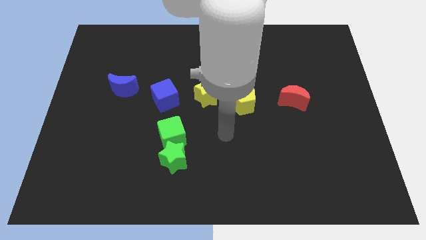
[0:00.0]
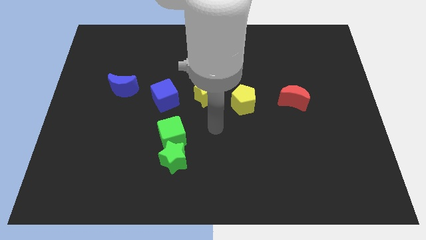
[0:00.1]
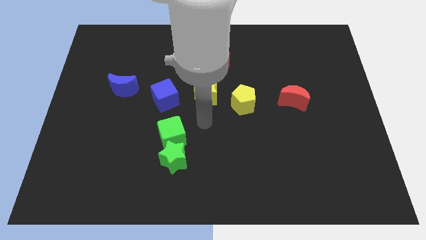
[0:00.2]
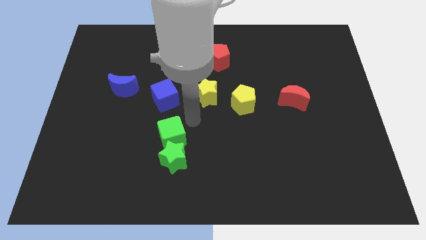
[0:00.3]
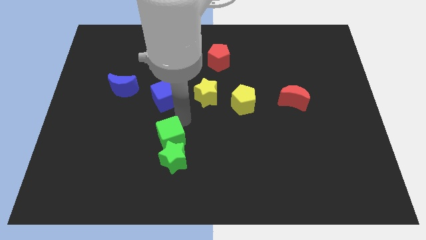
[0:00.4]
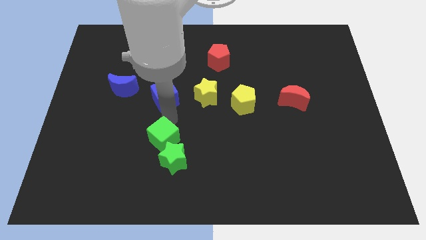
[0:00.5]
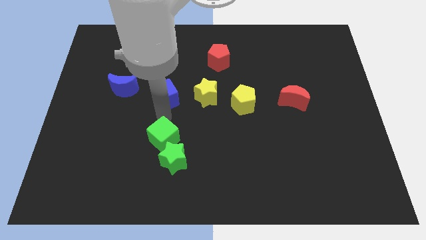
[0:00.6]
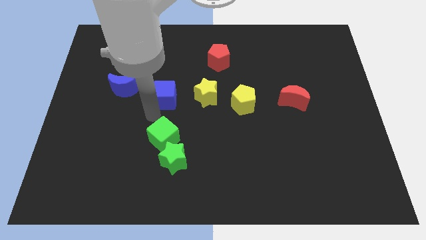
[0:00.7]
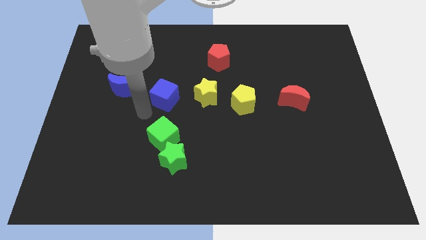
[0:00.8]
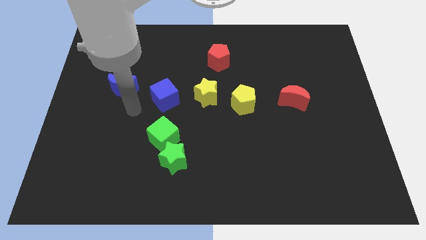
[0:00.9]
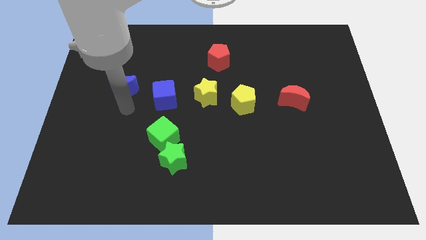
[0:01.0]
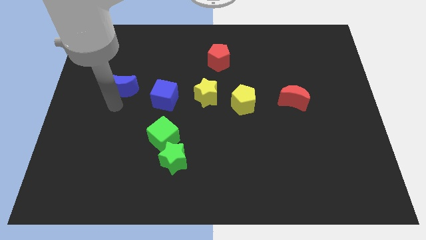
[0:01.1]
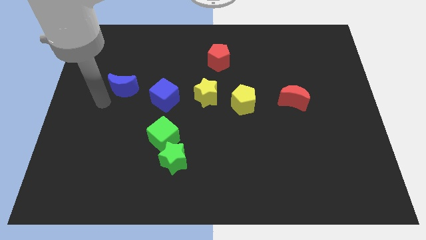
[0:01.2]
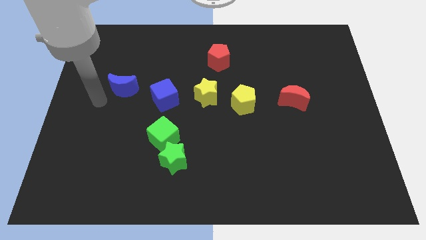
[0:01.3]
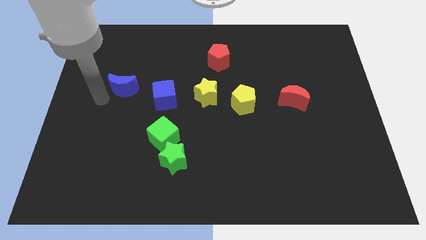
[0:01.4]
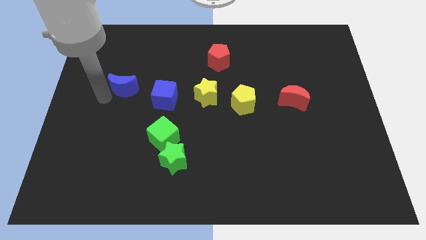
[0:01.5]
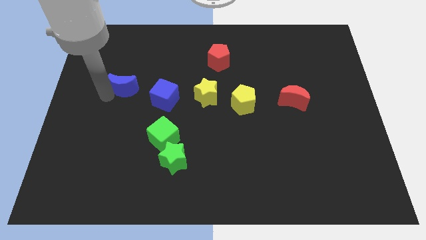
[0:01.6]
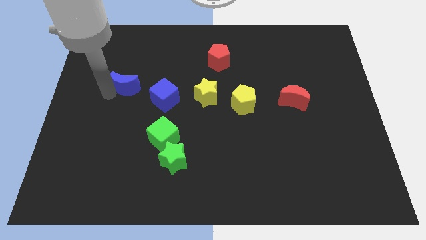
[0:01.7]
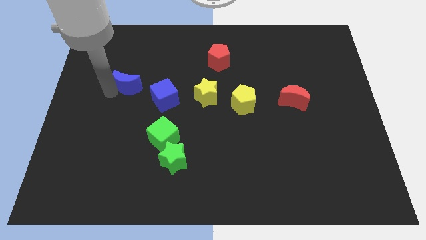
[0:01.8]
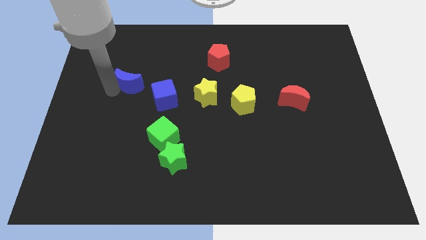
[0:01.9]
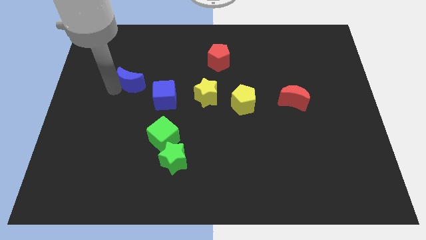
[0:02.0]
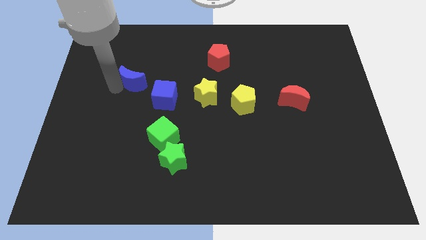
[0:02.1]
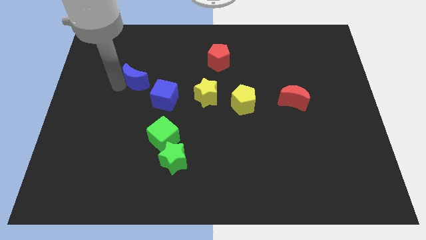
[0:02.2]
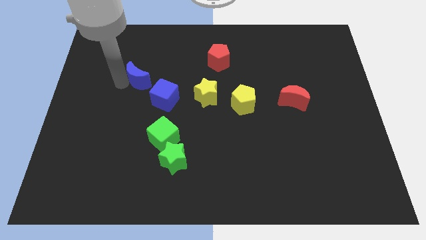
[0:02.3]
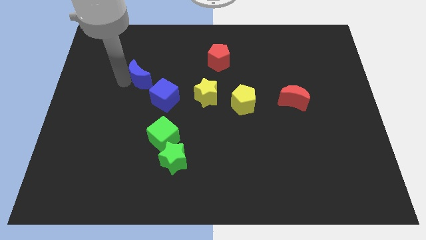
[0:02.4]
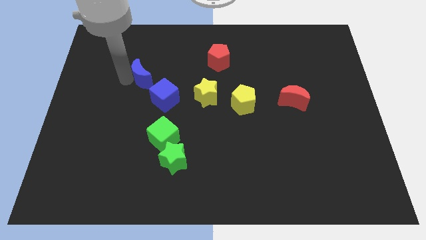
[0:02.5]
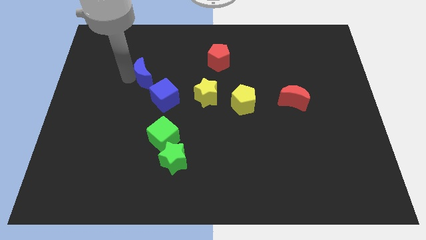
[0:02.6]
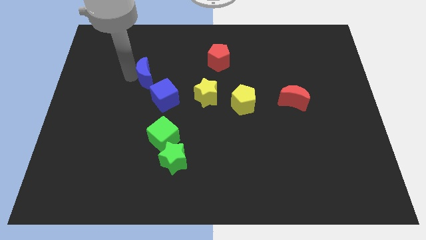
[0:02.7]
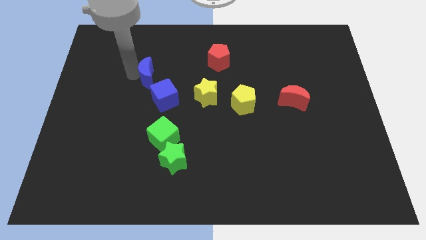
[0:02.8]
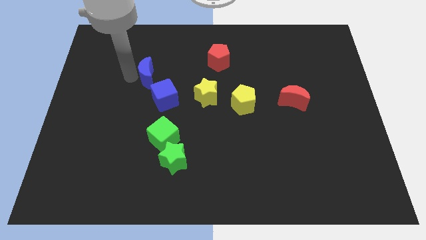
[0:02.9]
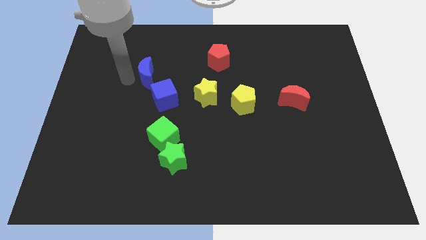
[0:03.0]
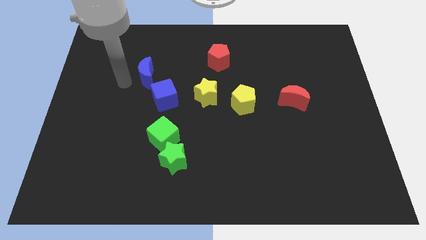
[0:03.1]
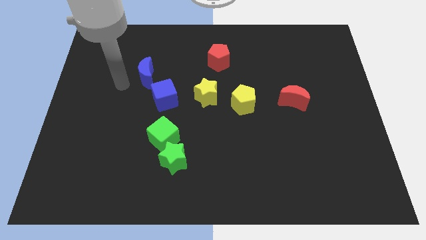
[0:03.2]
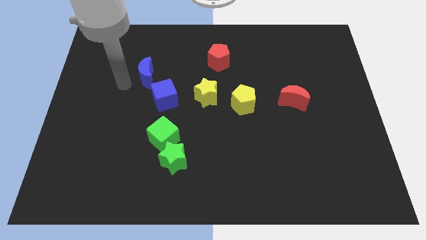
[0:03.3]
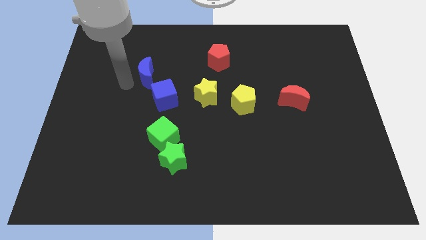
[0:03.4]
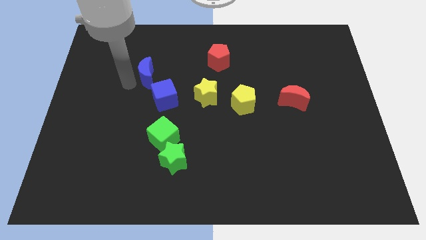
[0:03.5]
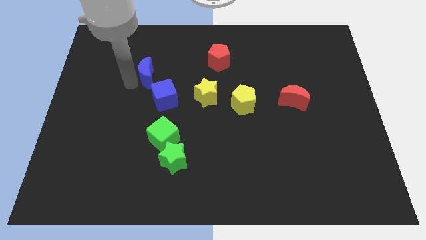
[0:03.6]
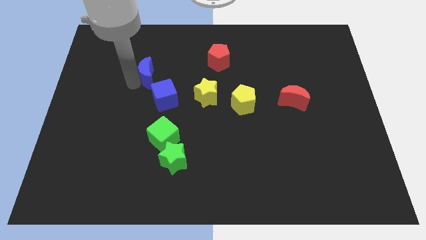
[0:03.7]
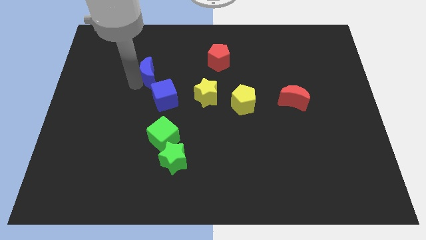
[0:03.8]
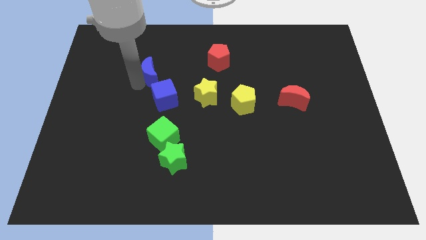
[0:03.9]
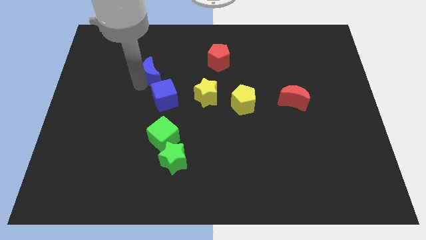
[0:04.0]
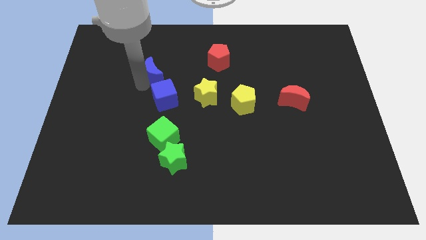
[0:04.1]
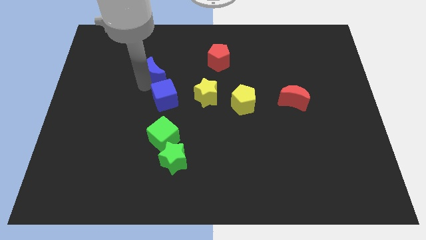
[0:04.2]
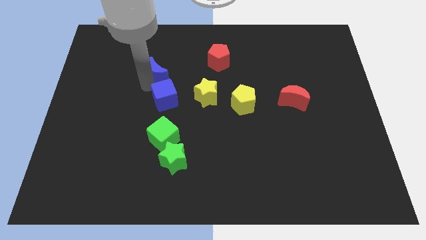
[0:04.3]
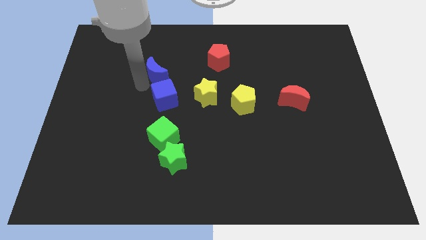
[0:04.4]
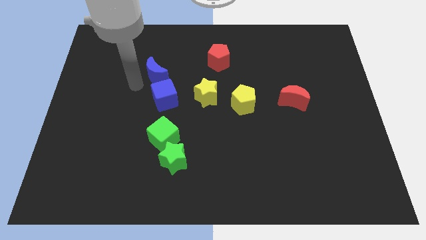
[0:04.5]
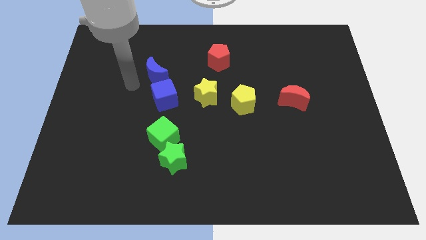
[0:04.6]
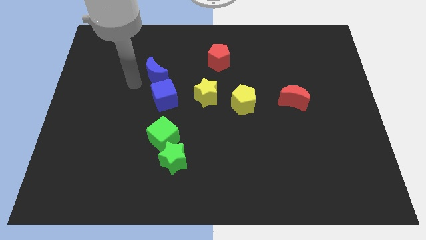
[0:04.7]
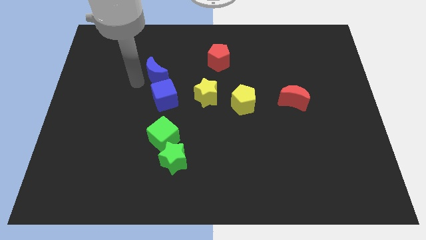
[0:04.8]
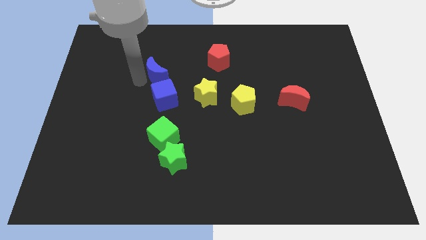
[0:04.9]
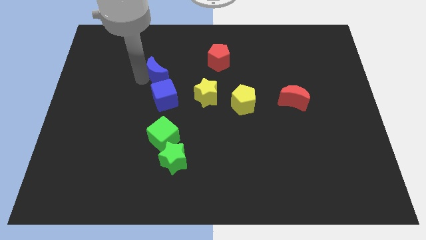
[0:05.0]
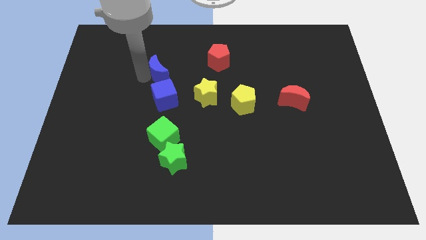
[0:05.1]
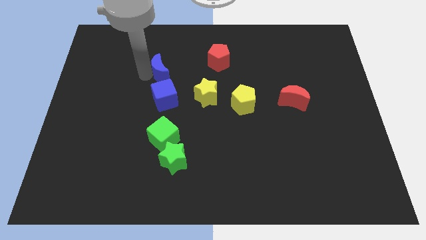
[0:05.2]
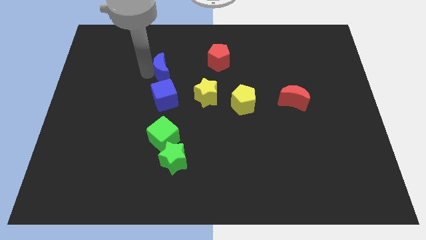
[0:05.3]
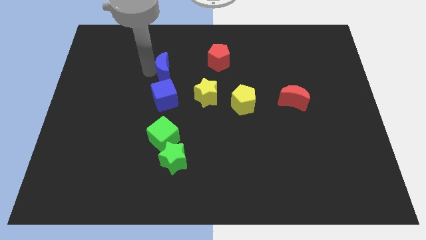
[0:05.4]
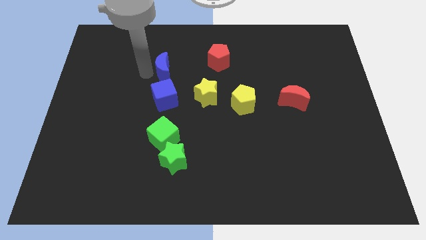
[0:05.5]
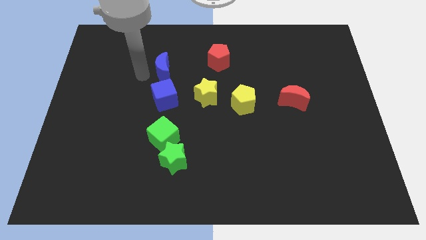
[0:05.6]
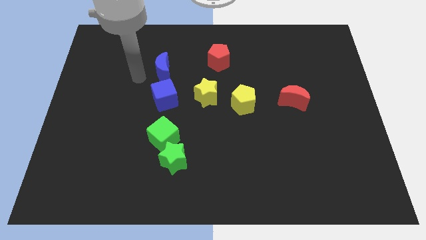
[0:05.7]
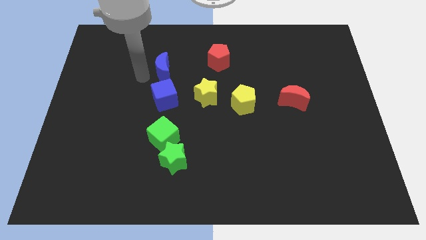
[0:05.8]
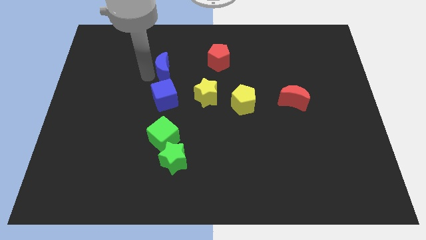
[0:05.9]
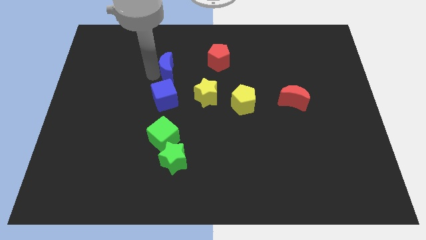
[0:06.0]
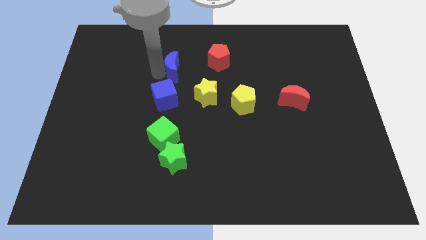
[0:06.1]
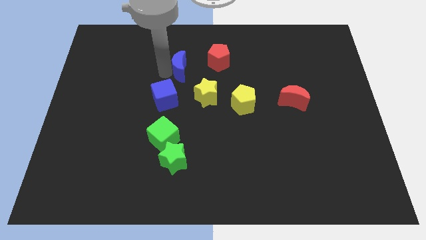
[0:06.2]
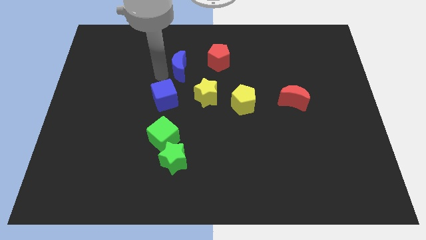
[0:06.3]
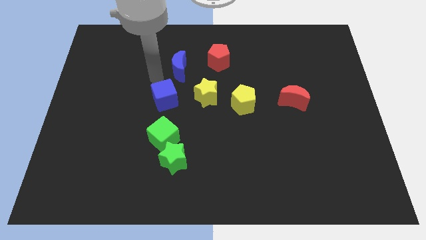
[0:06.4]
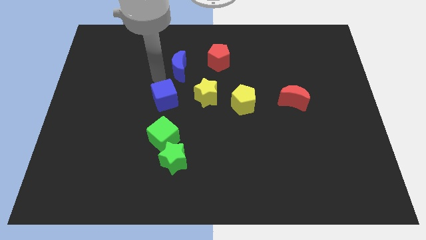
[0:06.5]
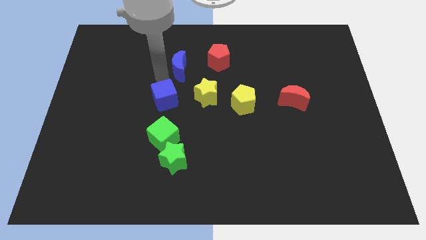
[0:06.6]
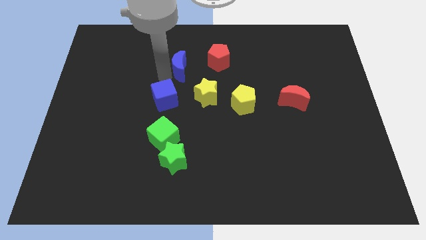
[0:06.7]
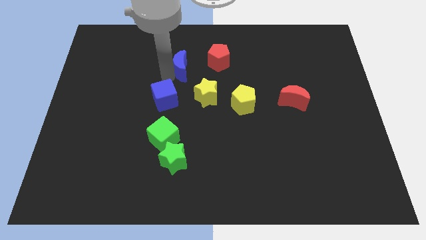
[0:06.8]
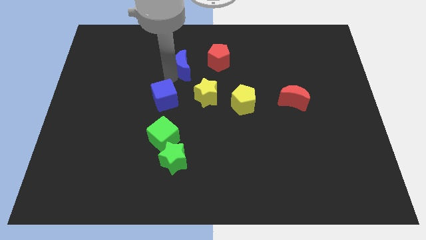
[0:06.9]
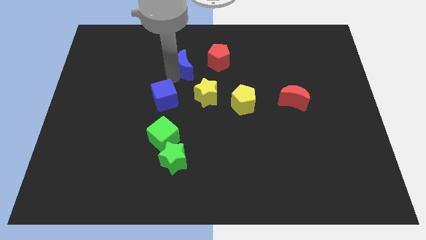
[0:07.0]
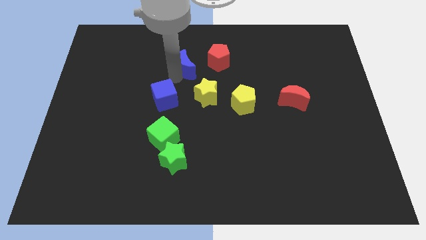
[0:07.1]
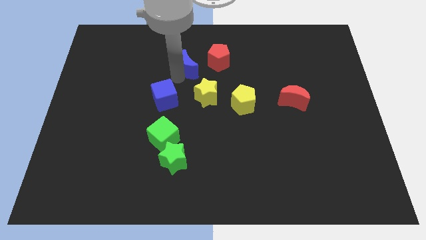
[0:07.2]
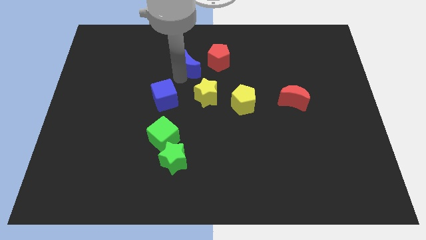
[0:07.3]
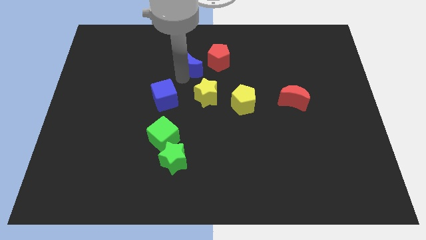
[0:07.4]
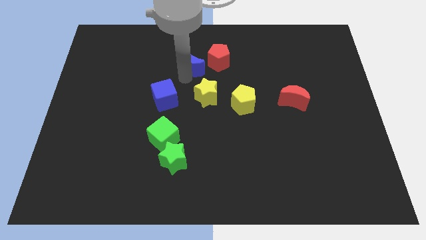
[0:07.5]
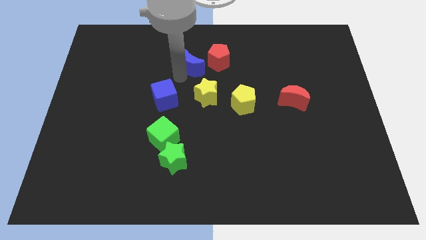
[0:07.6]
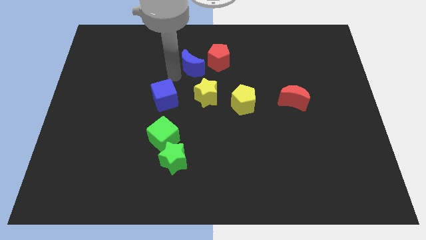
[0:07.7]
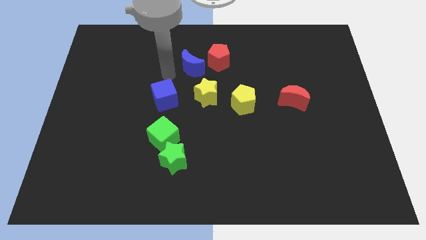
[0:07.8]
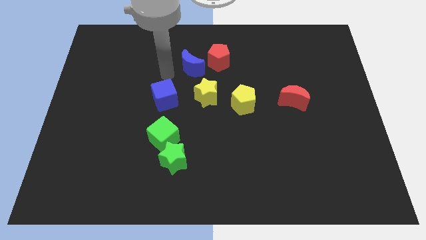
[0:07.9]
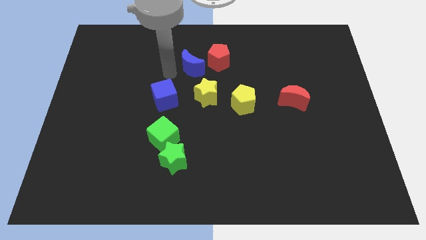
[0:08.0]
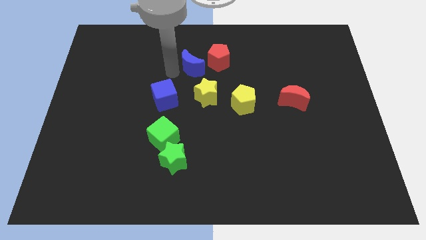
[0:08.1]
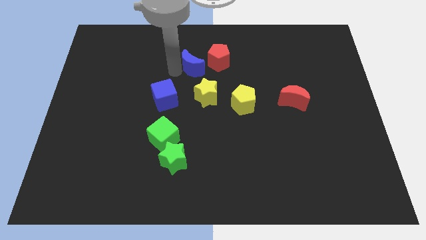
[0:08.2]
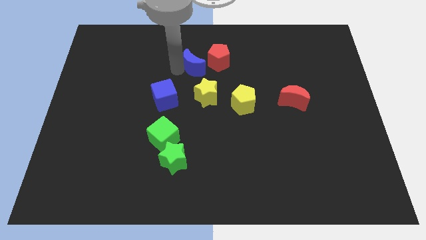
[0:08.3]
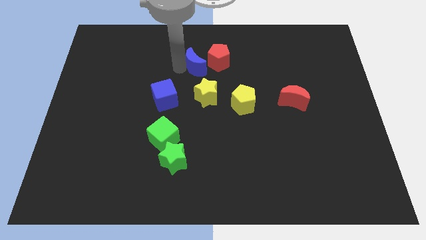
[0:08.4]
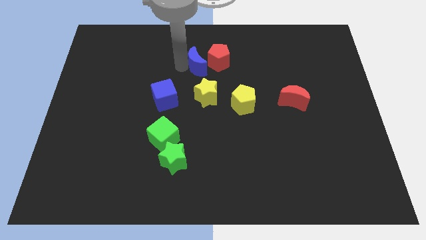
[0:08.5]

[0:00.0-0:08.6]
put the blue moon next to the red pentagon
